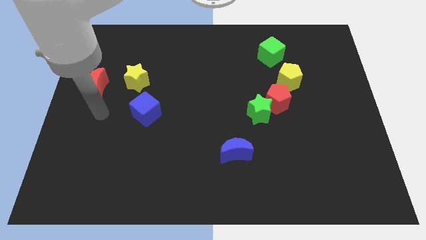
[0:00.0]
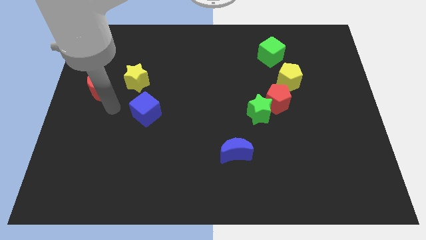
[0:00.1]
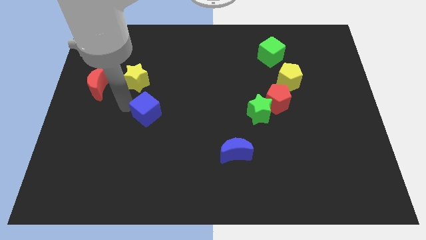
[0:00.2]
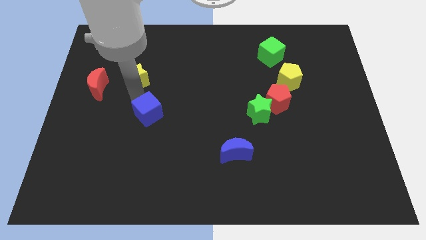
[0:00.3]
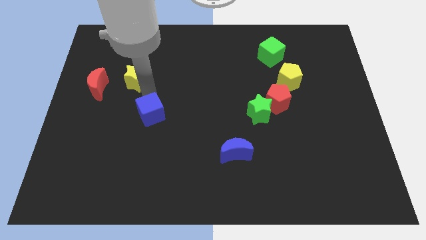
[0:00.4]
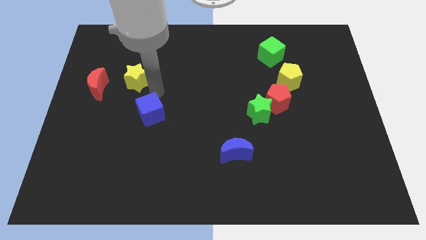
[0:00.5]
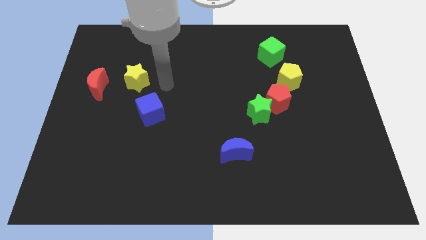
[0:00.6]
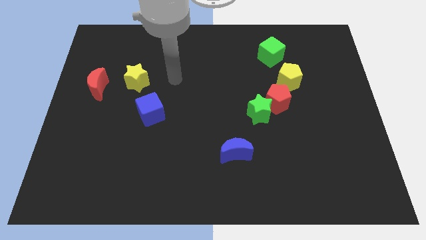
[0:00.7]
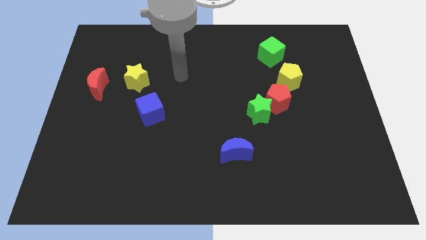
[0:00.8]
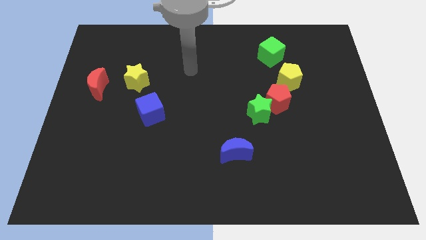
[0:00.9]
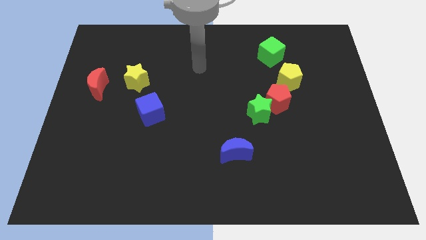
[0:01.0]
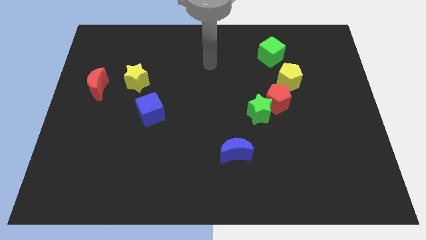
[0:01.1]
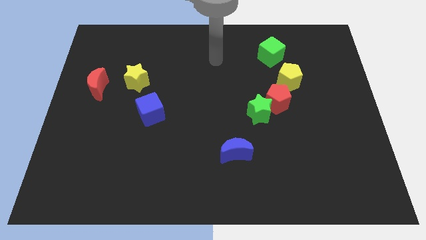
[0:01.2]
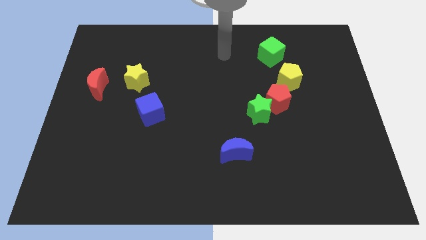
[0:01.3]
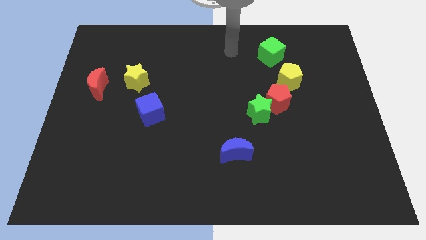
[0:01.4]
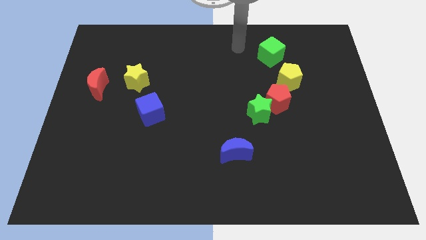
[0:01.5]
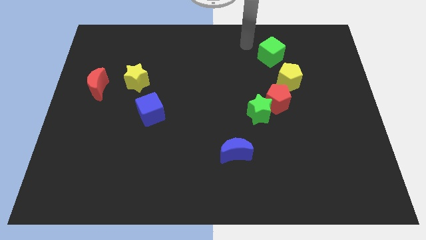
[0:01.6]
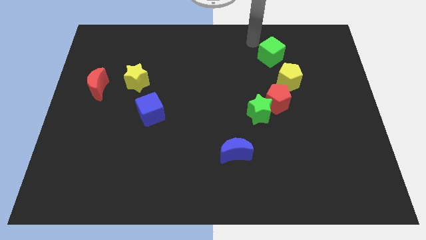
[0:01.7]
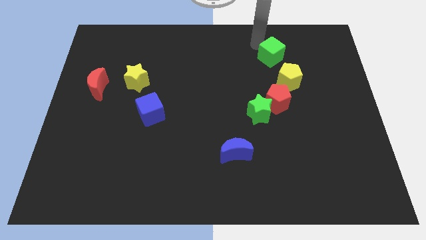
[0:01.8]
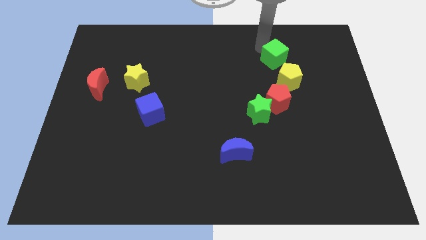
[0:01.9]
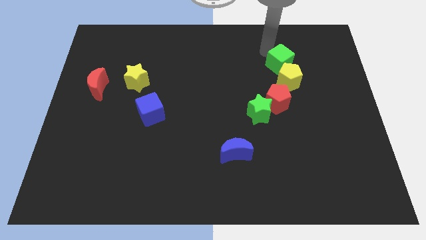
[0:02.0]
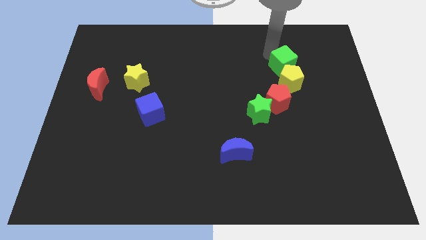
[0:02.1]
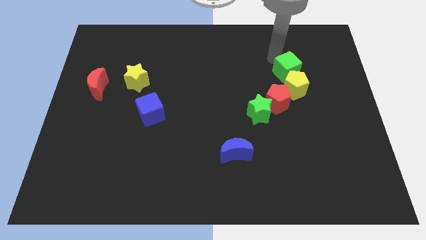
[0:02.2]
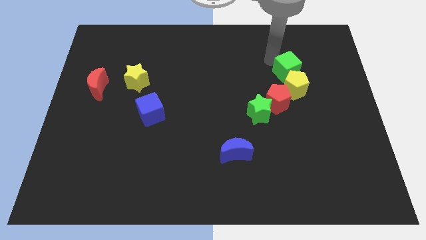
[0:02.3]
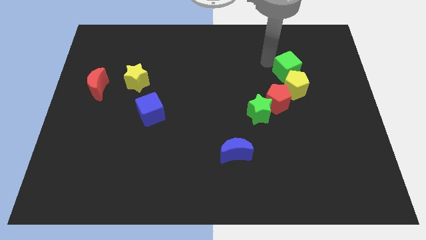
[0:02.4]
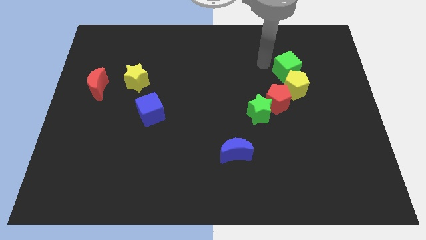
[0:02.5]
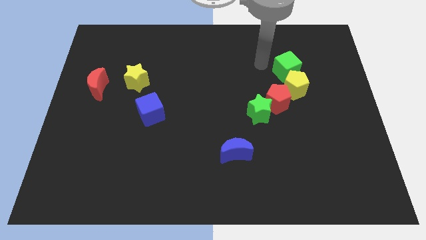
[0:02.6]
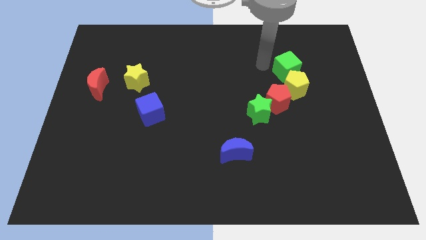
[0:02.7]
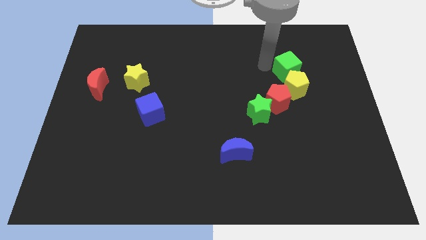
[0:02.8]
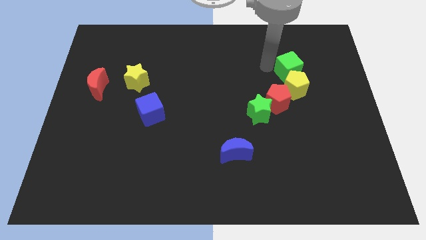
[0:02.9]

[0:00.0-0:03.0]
move the green cube downwards and right diagonally a bit

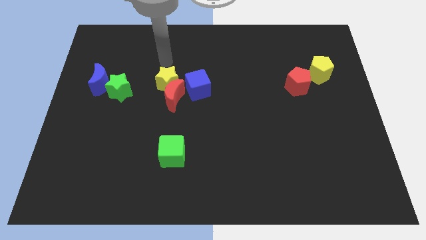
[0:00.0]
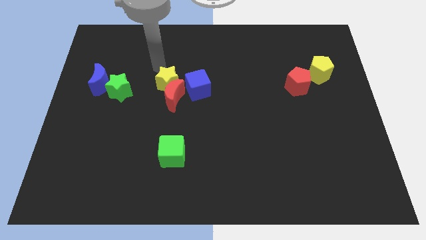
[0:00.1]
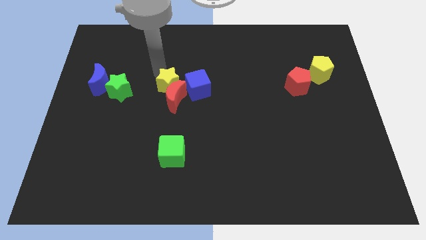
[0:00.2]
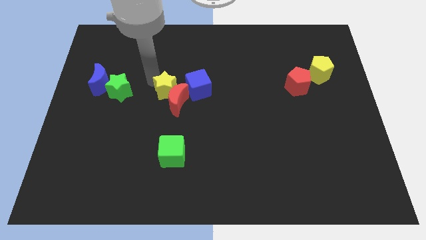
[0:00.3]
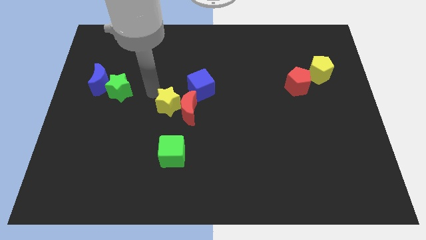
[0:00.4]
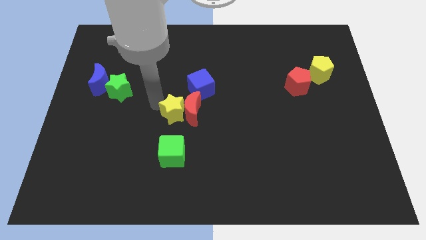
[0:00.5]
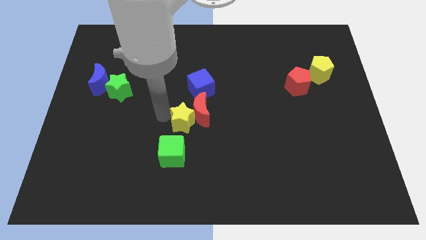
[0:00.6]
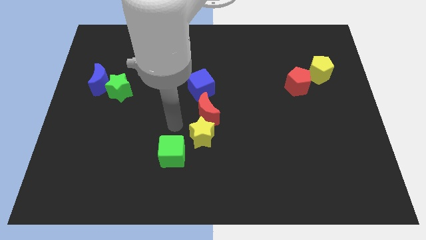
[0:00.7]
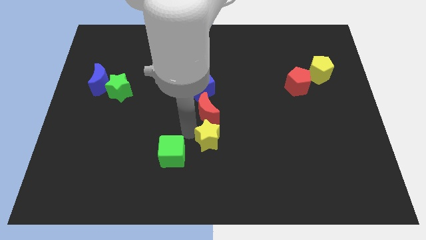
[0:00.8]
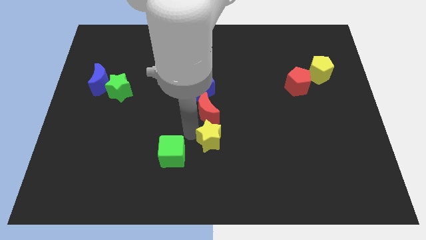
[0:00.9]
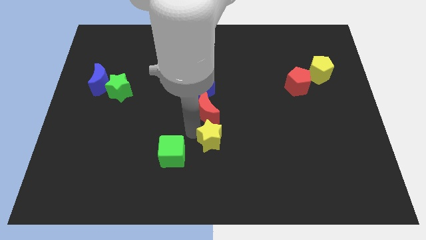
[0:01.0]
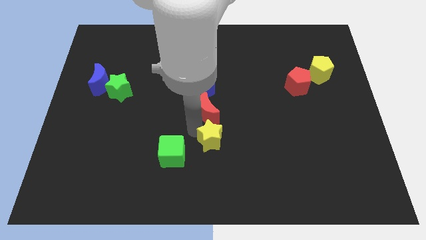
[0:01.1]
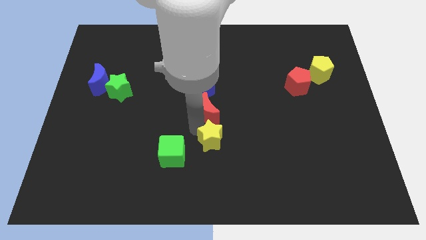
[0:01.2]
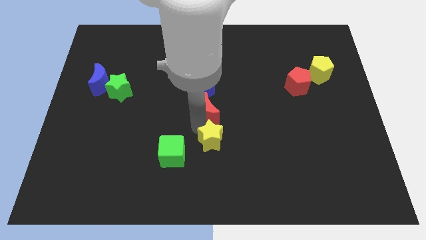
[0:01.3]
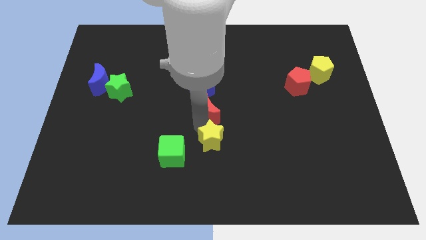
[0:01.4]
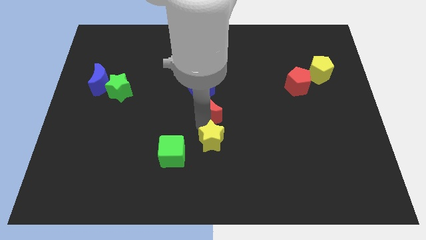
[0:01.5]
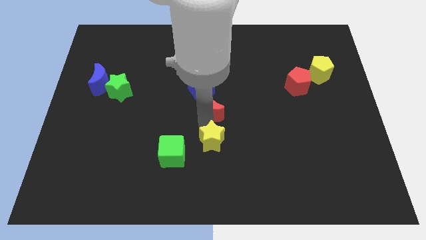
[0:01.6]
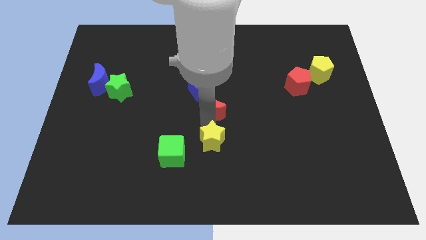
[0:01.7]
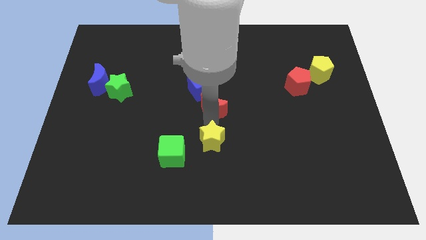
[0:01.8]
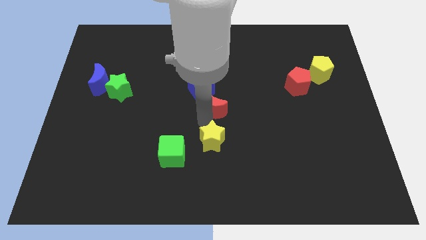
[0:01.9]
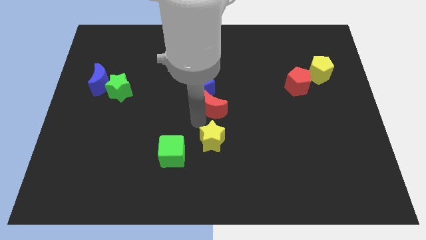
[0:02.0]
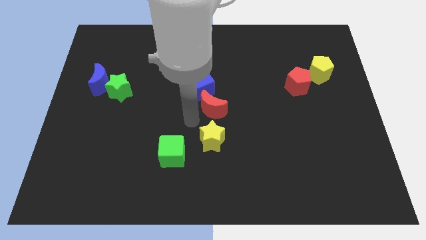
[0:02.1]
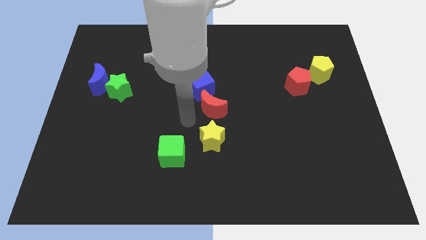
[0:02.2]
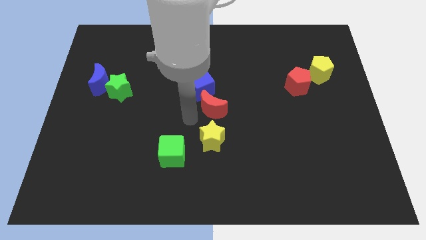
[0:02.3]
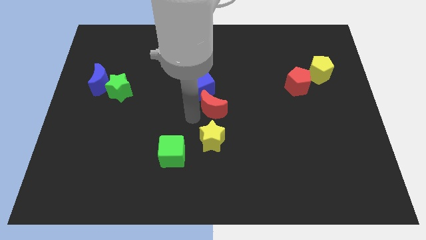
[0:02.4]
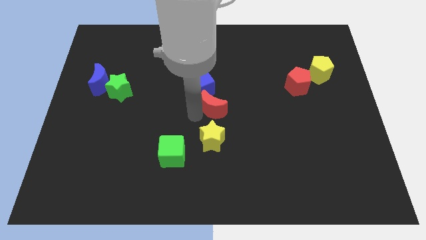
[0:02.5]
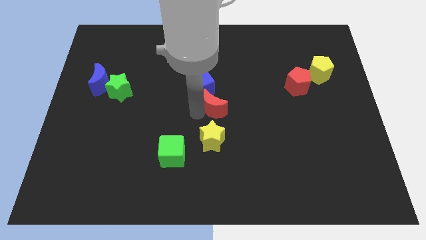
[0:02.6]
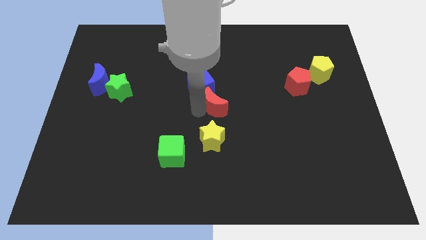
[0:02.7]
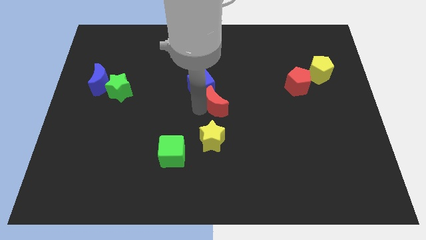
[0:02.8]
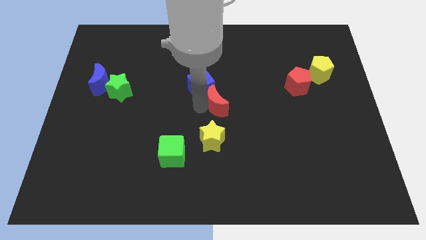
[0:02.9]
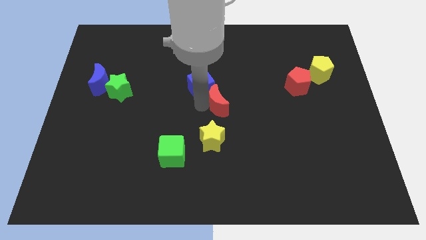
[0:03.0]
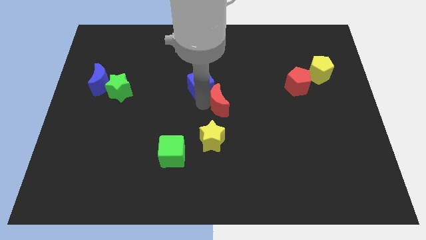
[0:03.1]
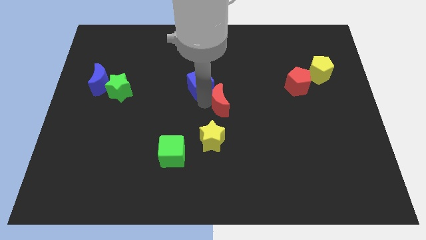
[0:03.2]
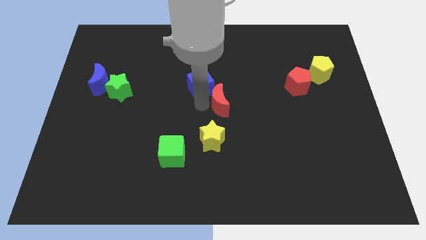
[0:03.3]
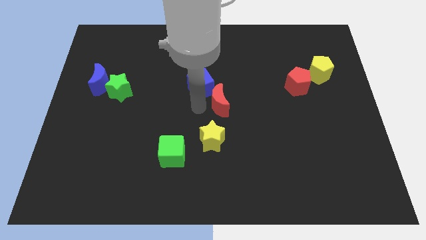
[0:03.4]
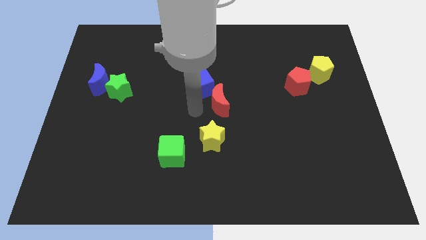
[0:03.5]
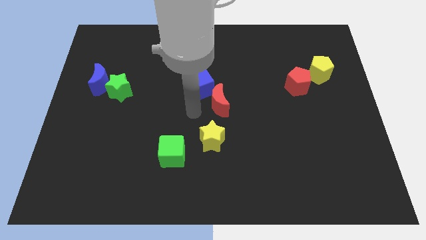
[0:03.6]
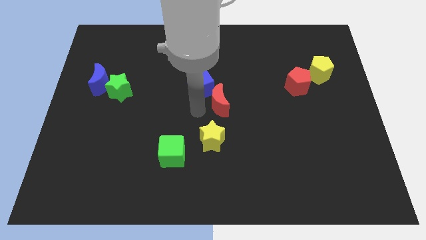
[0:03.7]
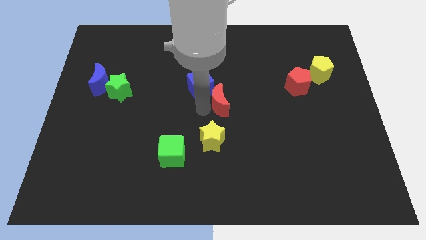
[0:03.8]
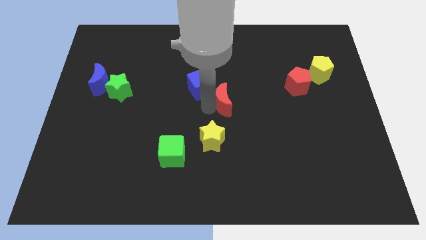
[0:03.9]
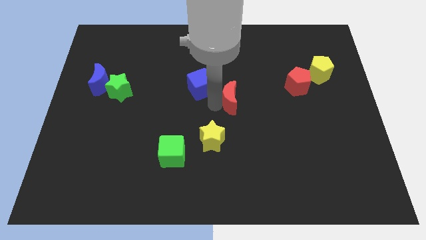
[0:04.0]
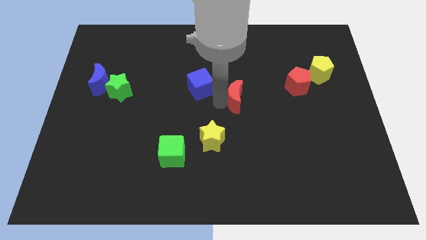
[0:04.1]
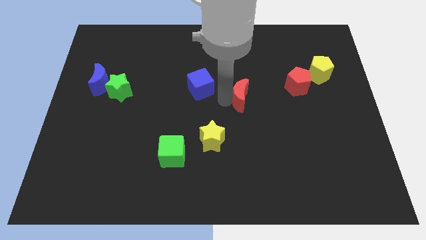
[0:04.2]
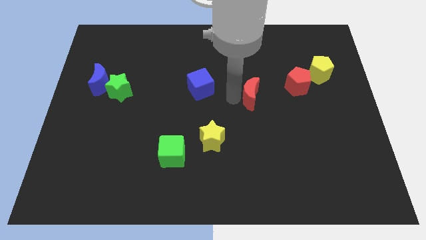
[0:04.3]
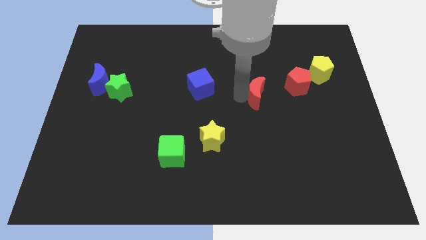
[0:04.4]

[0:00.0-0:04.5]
move the red moon right

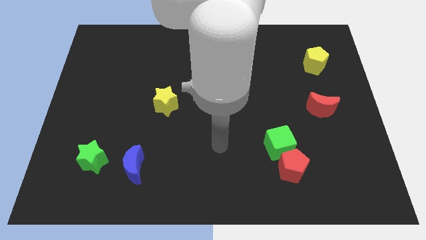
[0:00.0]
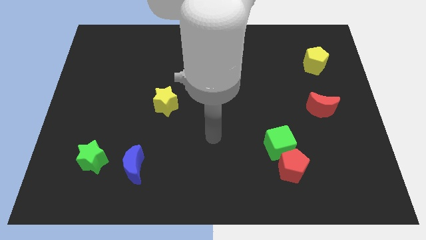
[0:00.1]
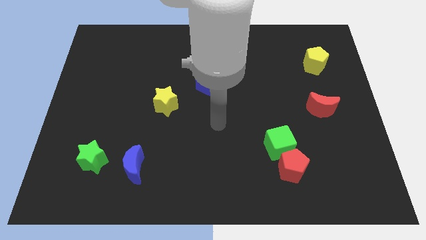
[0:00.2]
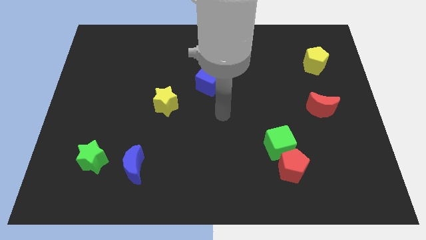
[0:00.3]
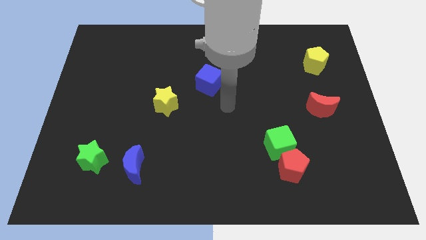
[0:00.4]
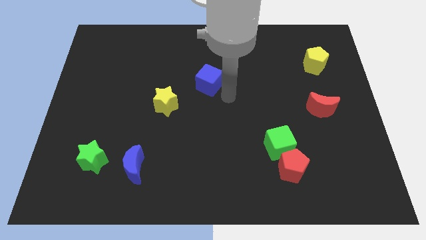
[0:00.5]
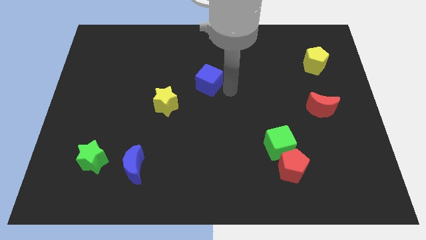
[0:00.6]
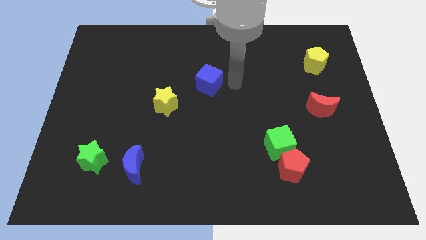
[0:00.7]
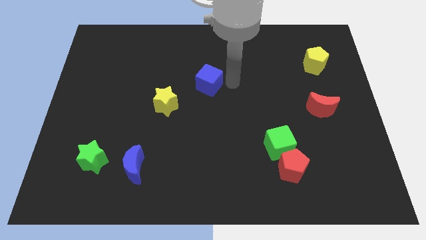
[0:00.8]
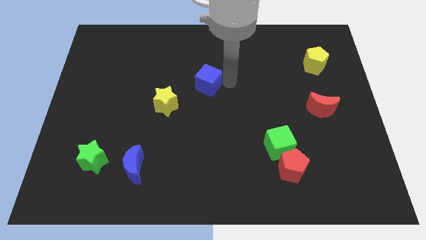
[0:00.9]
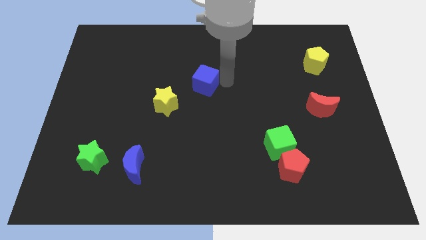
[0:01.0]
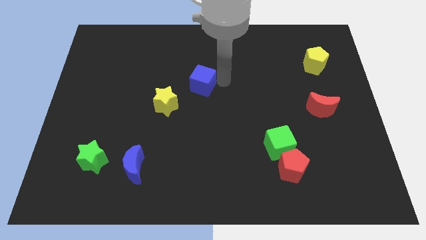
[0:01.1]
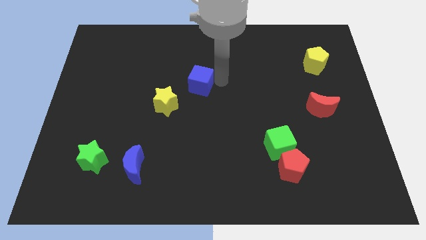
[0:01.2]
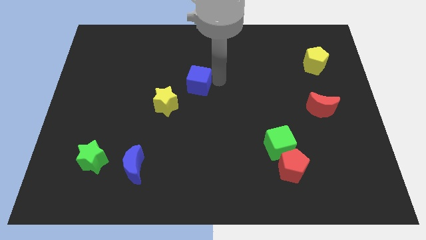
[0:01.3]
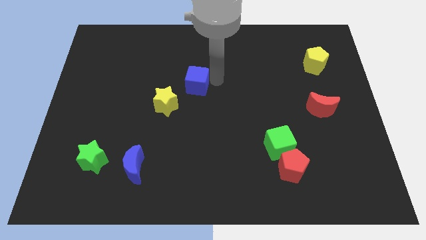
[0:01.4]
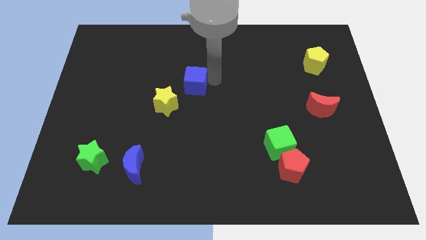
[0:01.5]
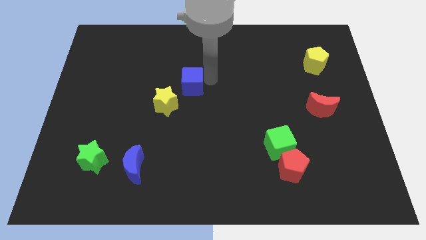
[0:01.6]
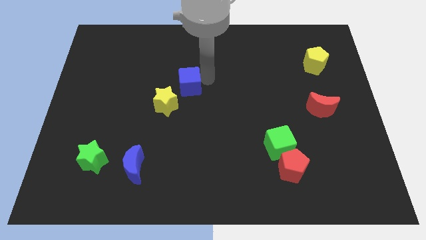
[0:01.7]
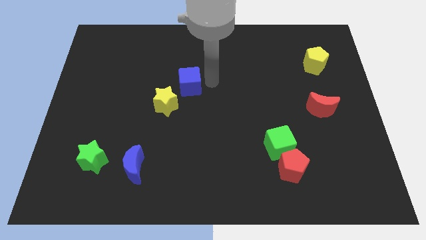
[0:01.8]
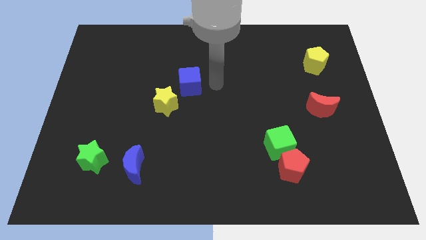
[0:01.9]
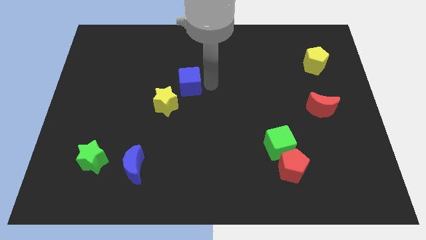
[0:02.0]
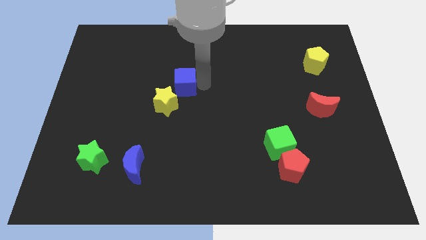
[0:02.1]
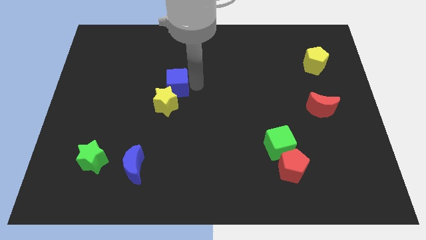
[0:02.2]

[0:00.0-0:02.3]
move the blue cube a little to the left
